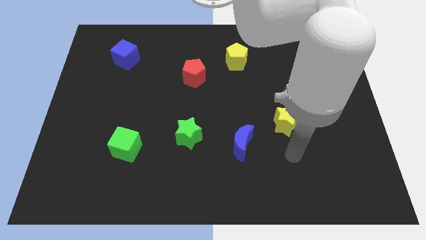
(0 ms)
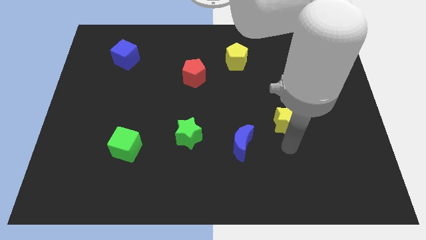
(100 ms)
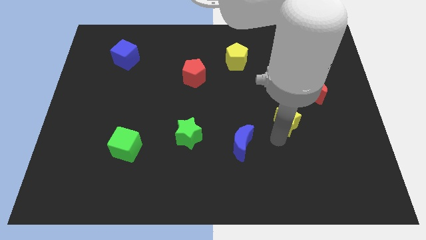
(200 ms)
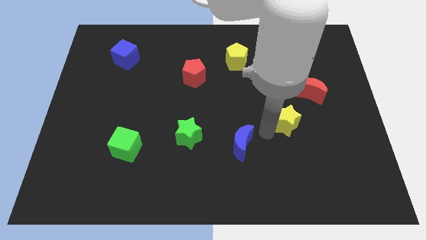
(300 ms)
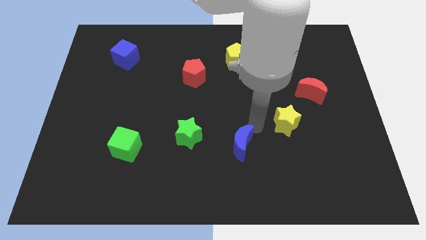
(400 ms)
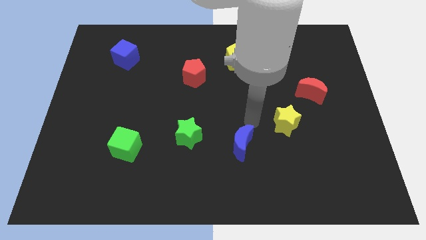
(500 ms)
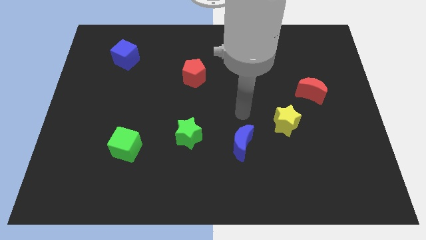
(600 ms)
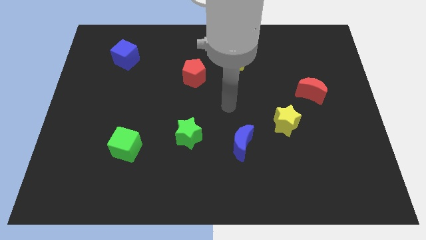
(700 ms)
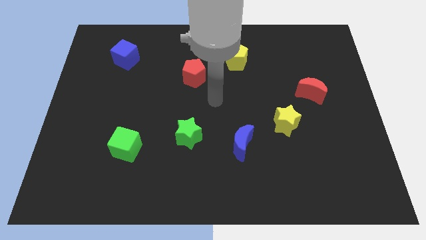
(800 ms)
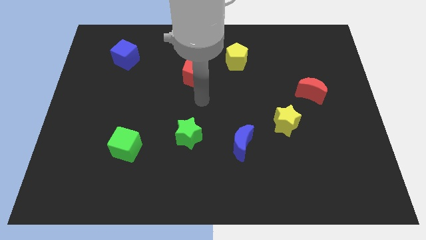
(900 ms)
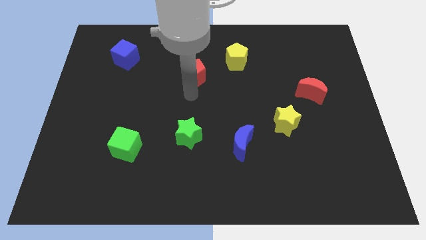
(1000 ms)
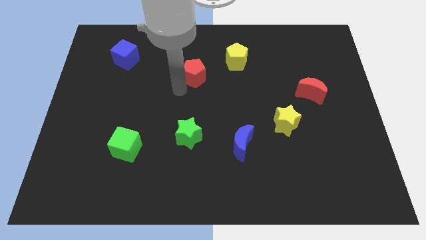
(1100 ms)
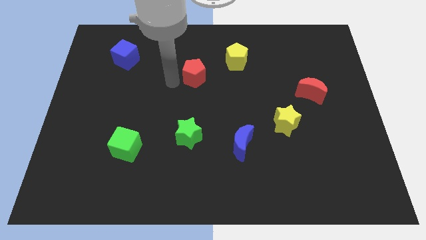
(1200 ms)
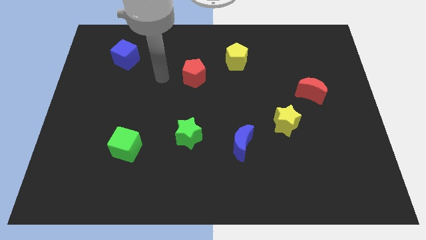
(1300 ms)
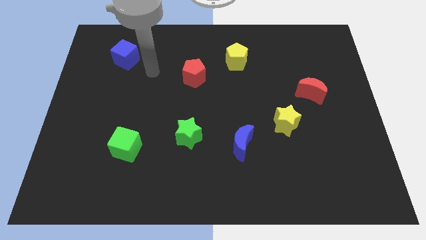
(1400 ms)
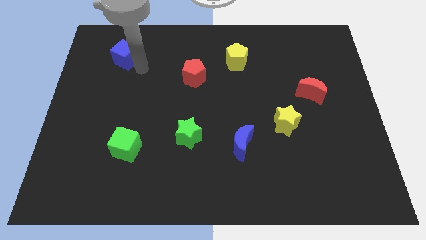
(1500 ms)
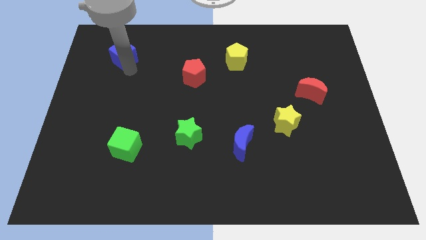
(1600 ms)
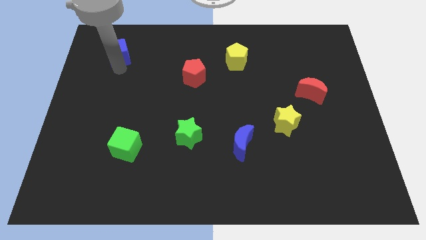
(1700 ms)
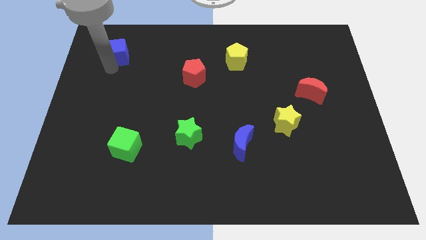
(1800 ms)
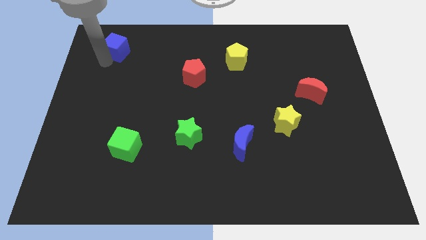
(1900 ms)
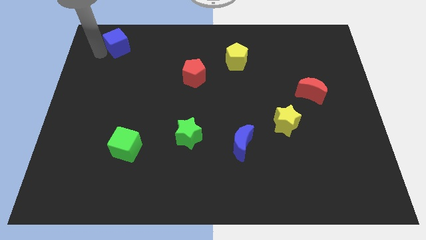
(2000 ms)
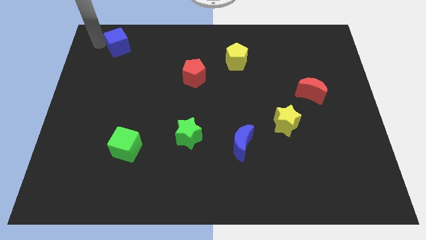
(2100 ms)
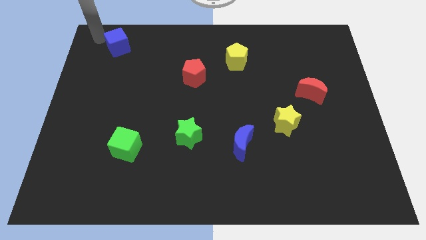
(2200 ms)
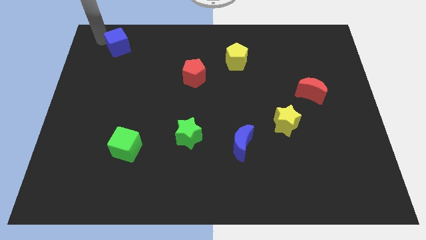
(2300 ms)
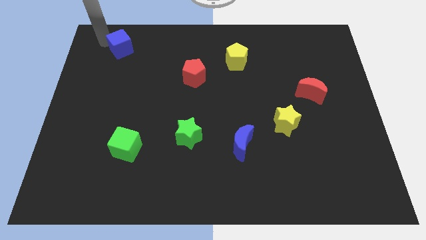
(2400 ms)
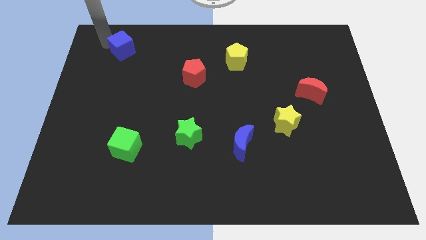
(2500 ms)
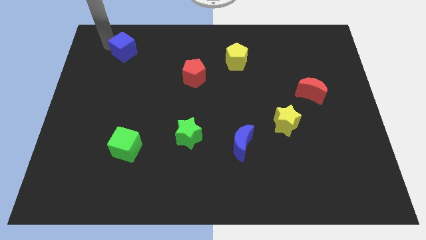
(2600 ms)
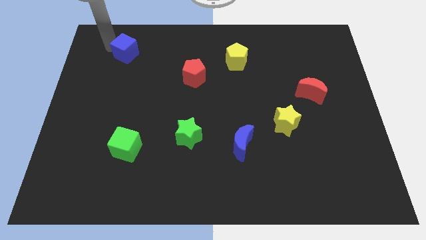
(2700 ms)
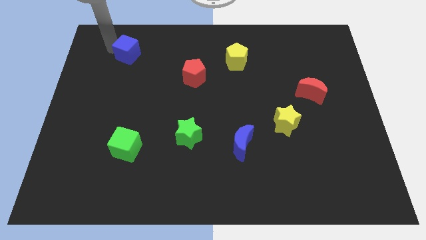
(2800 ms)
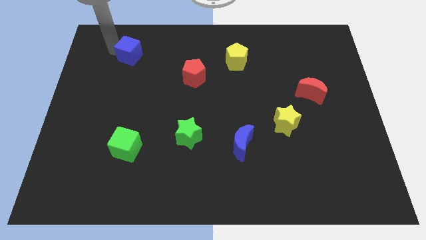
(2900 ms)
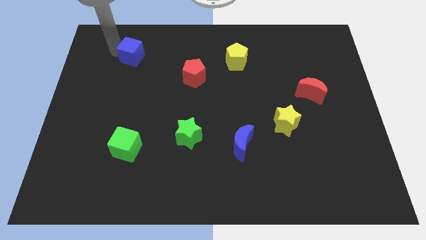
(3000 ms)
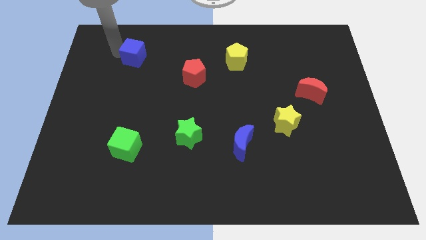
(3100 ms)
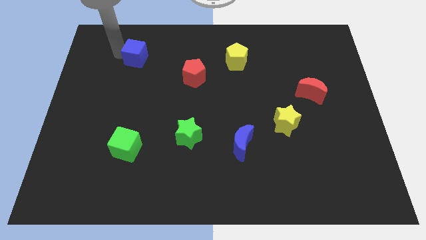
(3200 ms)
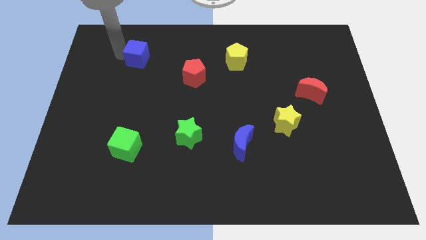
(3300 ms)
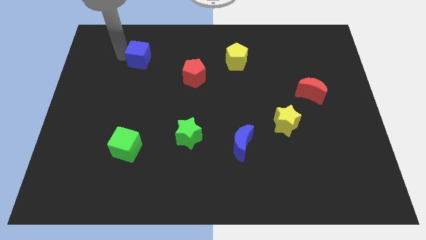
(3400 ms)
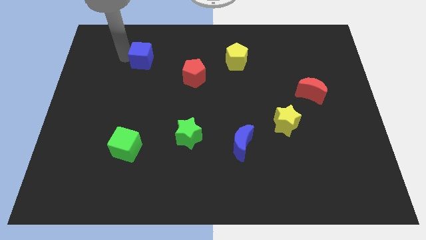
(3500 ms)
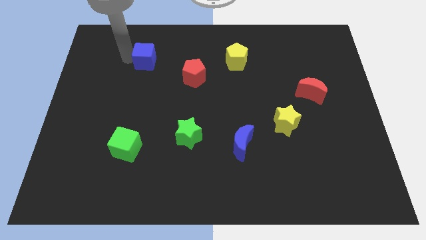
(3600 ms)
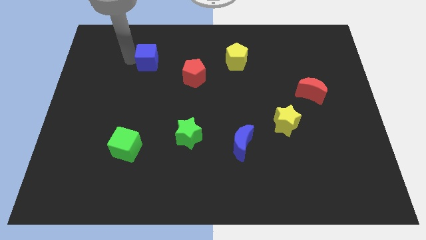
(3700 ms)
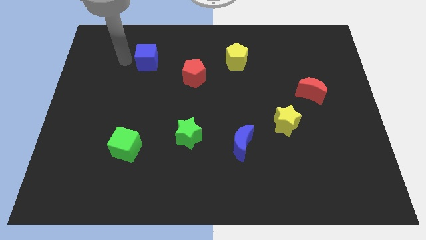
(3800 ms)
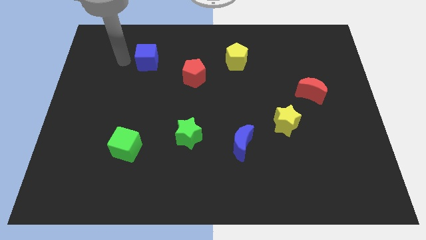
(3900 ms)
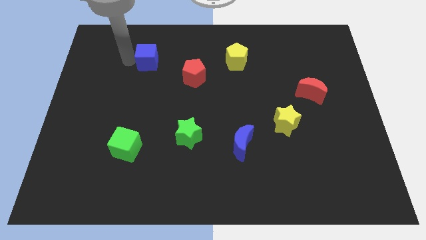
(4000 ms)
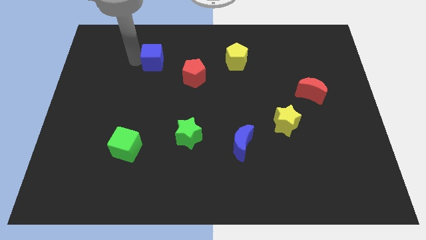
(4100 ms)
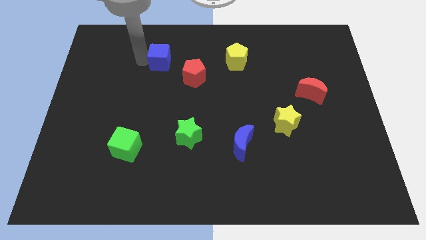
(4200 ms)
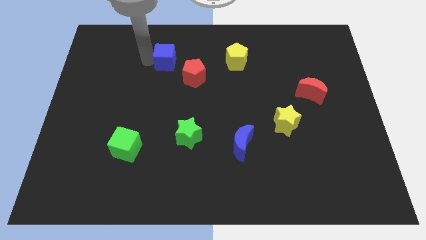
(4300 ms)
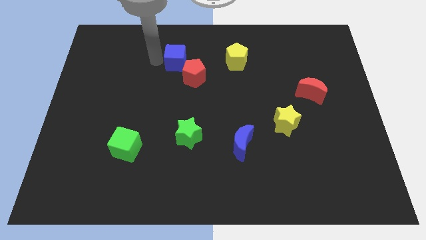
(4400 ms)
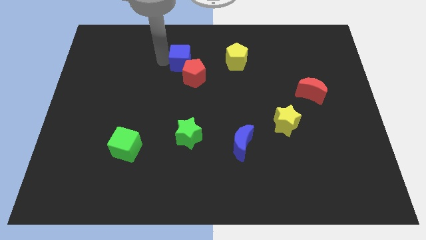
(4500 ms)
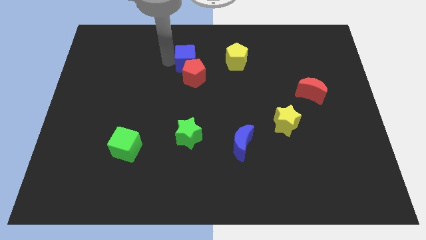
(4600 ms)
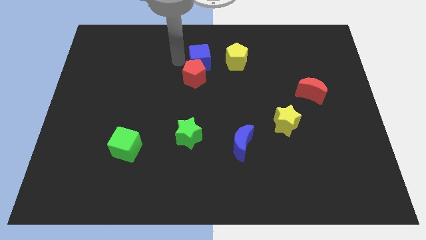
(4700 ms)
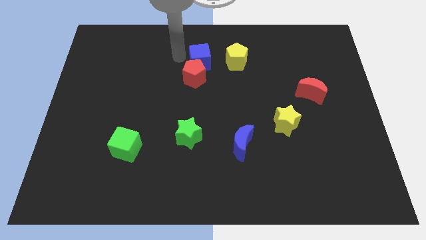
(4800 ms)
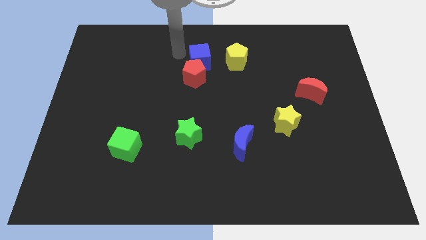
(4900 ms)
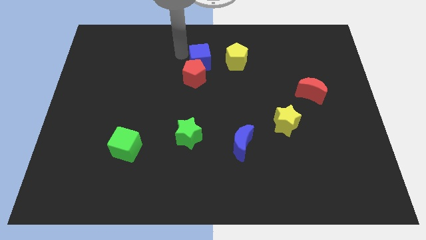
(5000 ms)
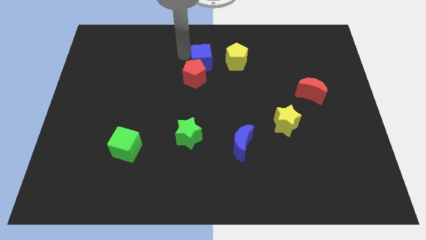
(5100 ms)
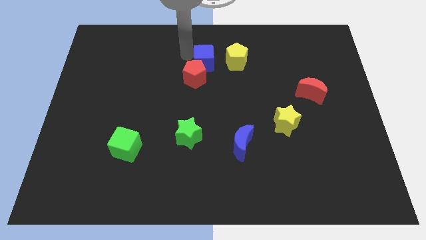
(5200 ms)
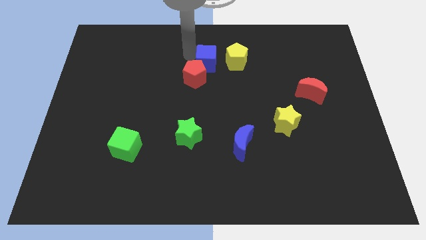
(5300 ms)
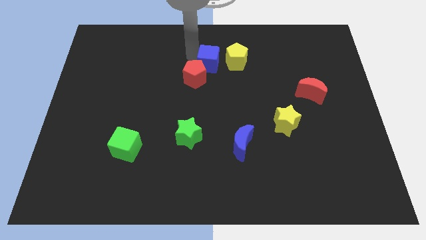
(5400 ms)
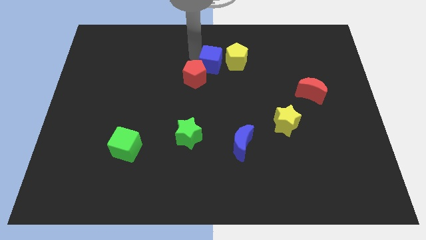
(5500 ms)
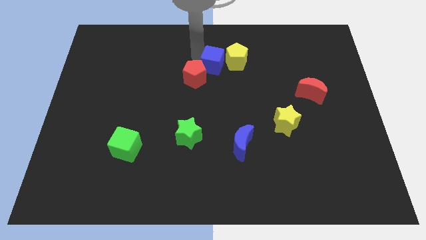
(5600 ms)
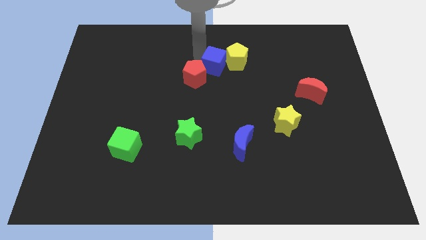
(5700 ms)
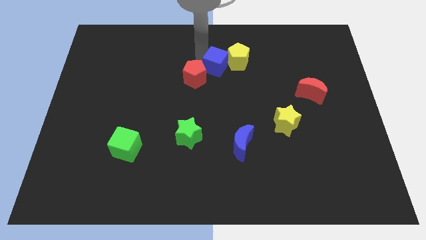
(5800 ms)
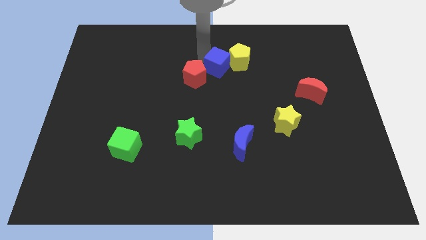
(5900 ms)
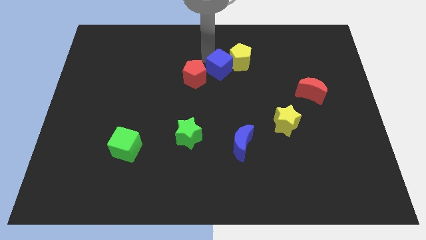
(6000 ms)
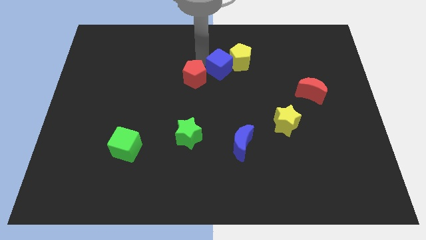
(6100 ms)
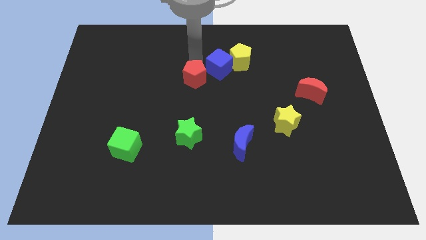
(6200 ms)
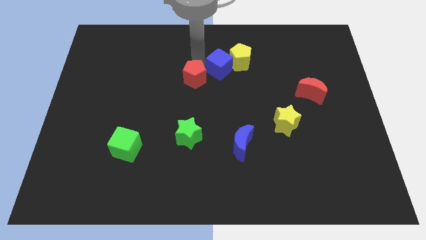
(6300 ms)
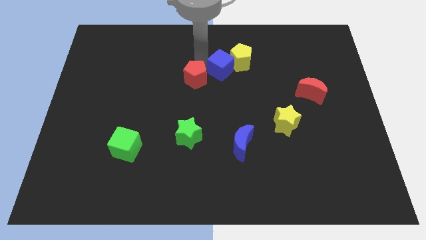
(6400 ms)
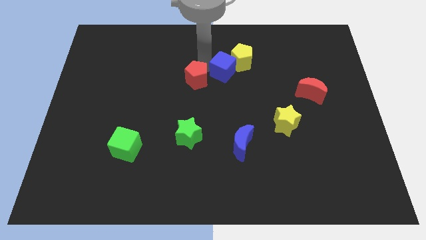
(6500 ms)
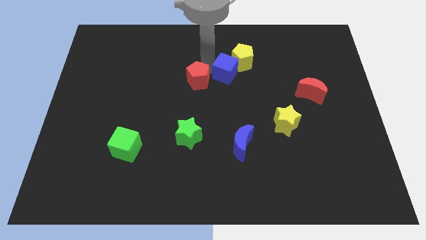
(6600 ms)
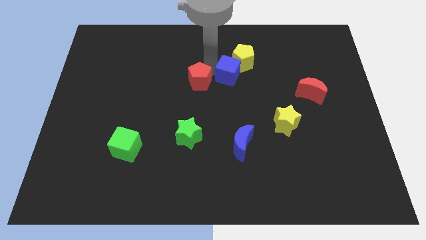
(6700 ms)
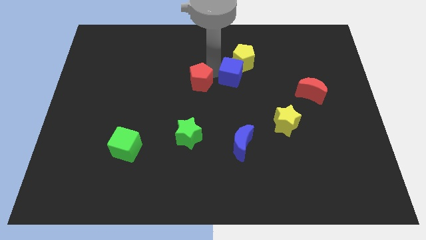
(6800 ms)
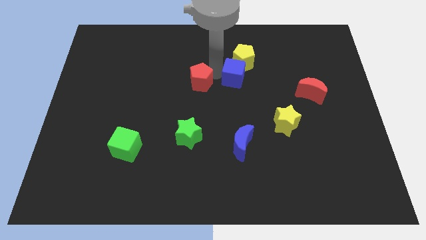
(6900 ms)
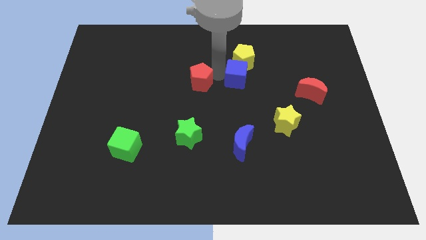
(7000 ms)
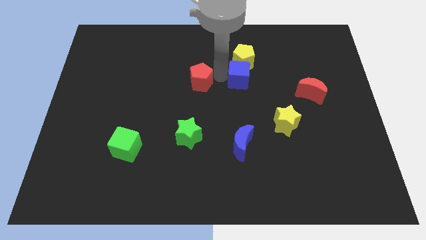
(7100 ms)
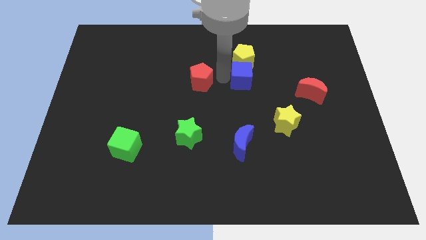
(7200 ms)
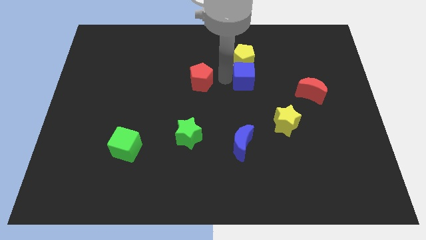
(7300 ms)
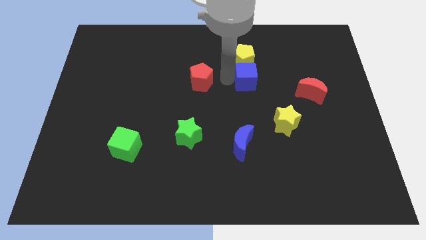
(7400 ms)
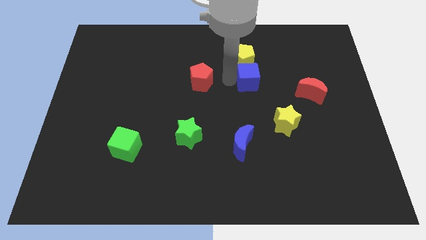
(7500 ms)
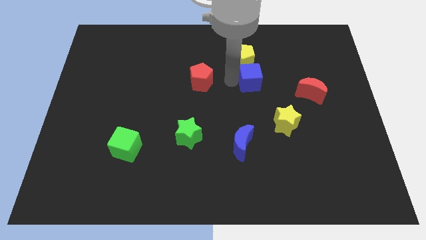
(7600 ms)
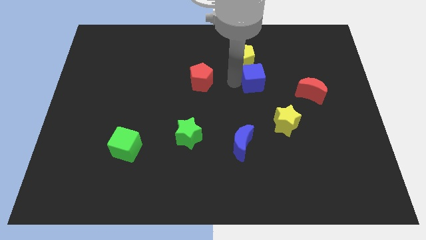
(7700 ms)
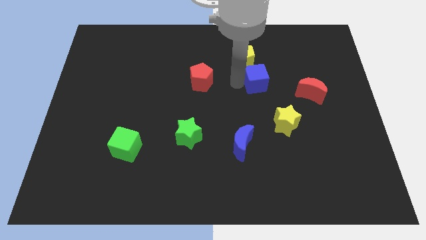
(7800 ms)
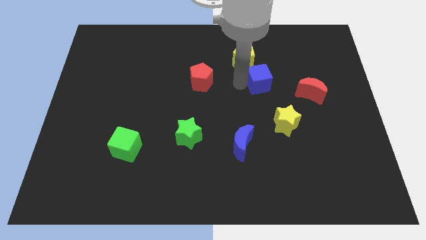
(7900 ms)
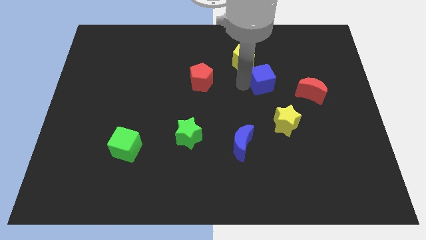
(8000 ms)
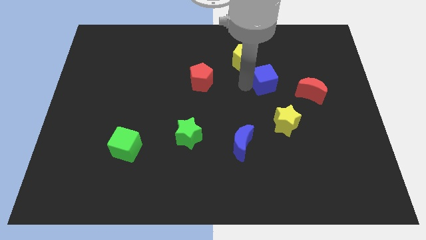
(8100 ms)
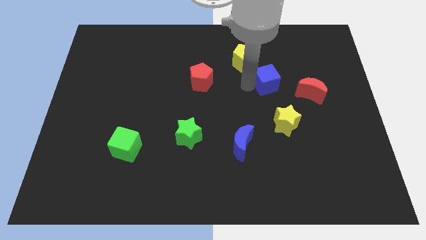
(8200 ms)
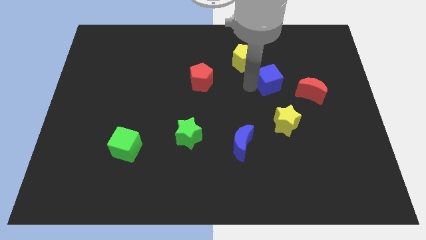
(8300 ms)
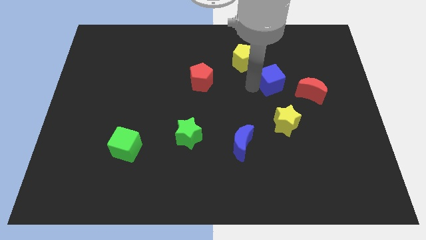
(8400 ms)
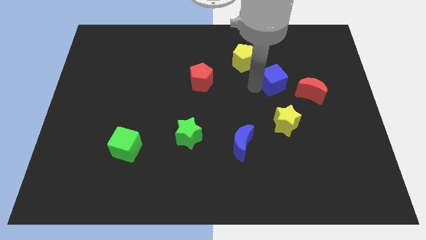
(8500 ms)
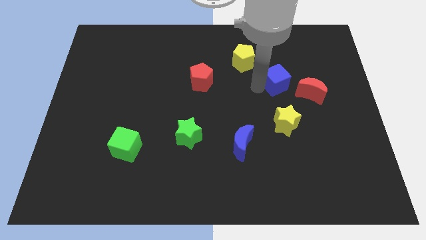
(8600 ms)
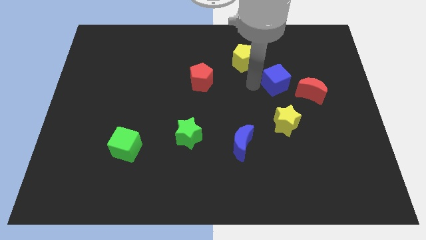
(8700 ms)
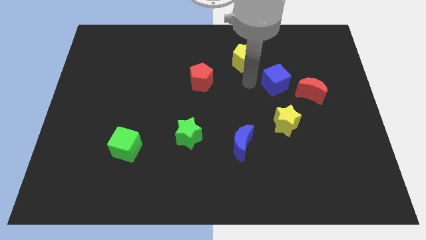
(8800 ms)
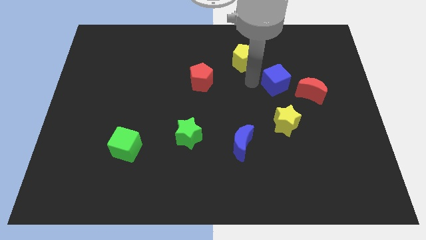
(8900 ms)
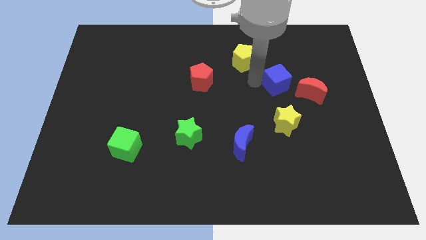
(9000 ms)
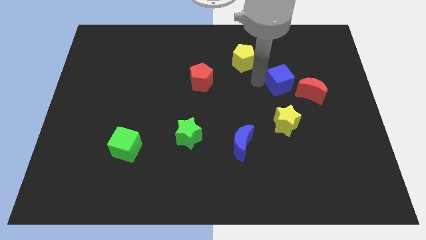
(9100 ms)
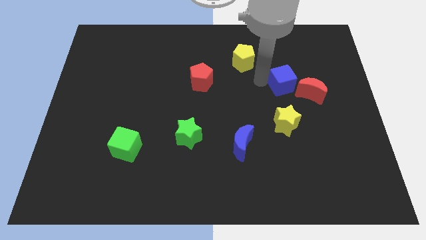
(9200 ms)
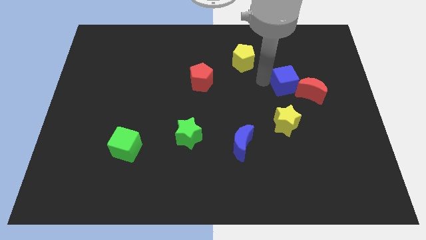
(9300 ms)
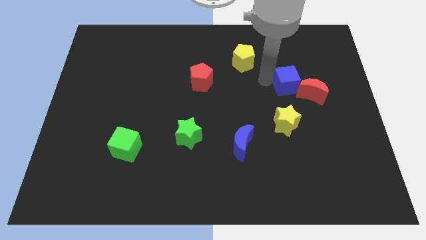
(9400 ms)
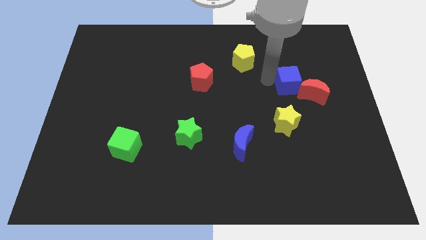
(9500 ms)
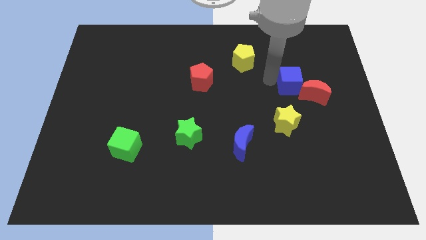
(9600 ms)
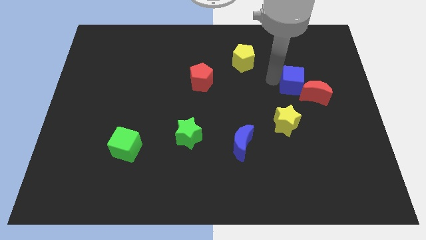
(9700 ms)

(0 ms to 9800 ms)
move the blue cube to the red moon
